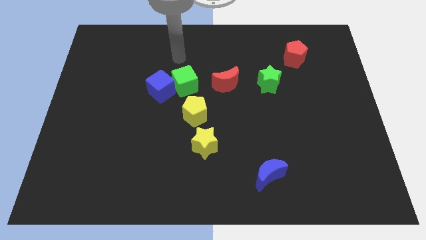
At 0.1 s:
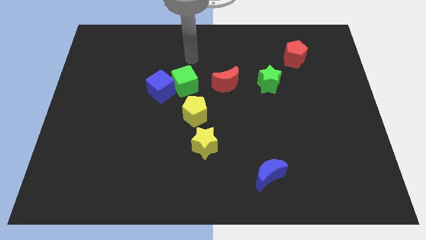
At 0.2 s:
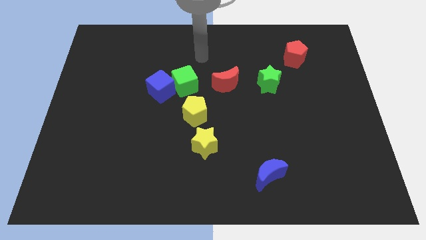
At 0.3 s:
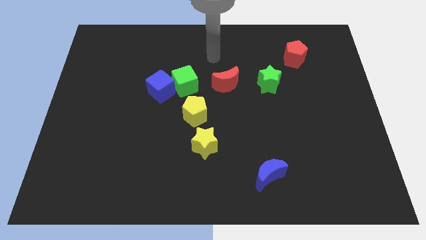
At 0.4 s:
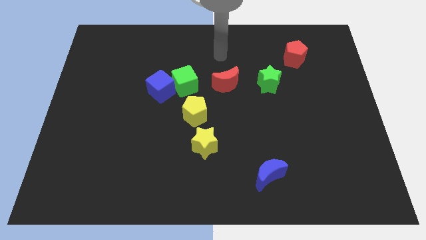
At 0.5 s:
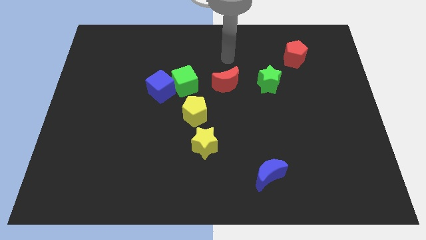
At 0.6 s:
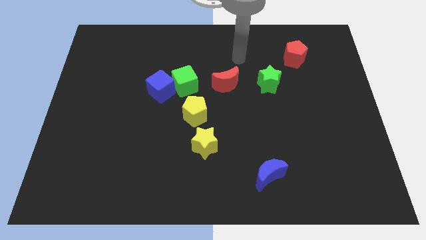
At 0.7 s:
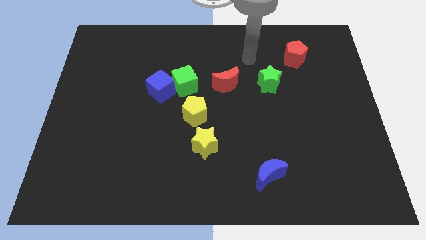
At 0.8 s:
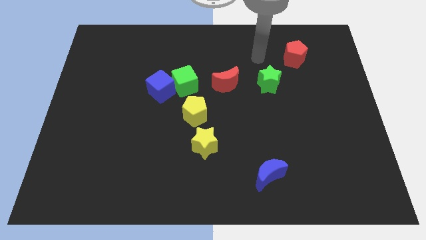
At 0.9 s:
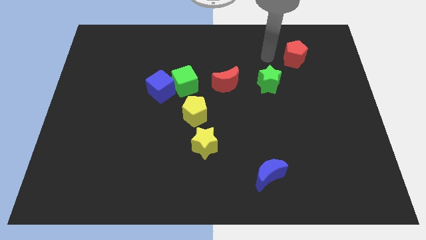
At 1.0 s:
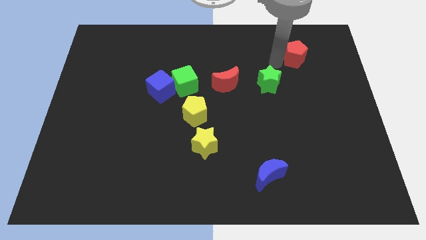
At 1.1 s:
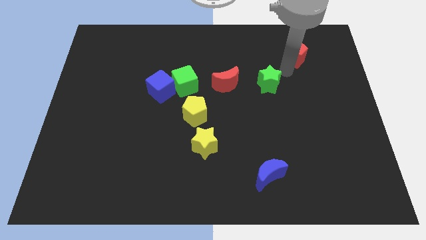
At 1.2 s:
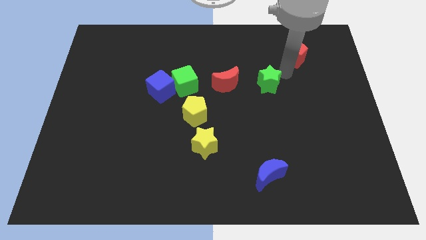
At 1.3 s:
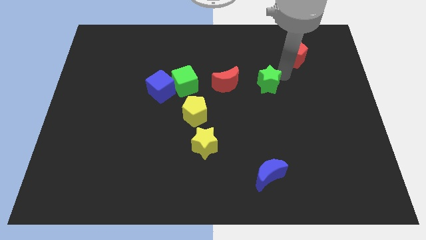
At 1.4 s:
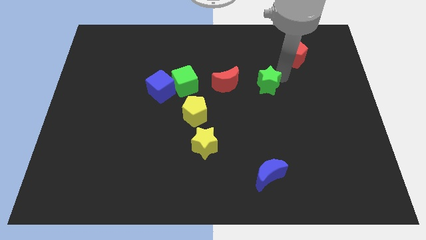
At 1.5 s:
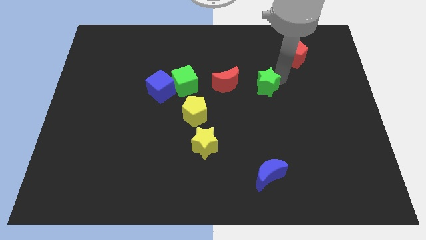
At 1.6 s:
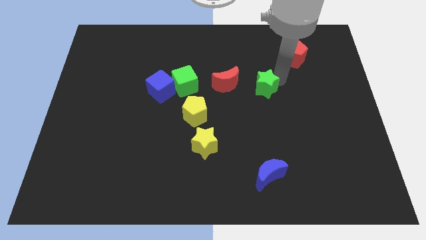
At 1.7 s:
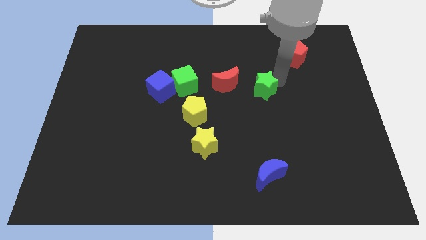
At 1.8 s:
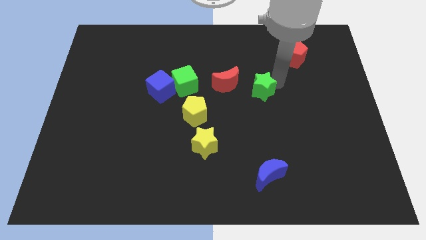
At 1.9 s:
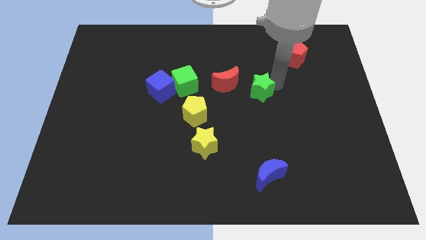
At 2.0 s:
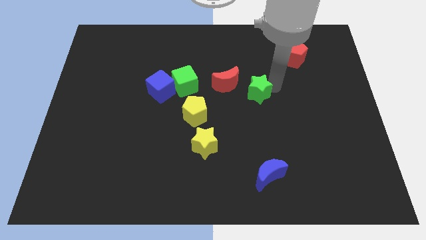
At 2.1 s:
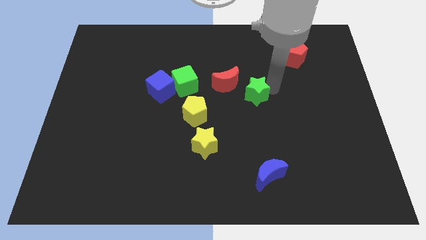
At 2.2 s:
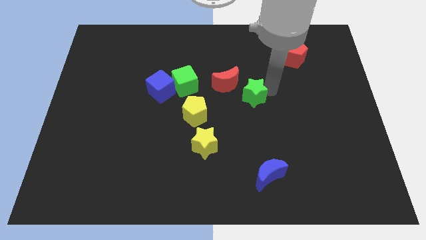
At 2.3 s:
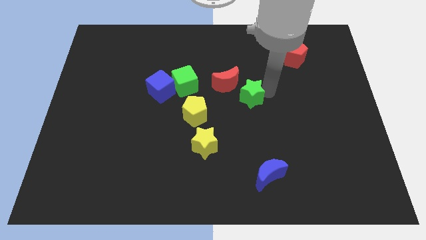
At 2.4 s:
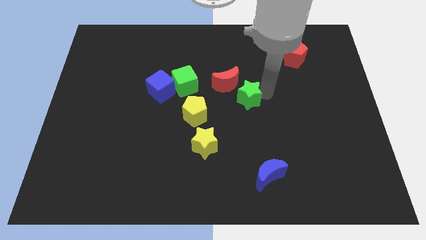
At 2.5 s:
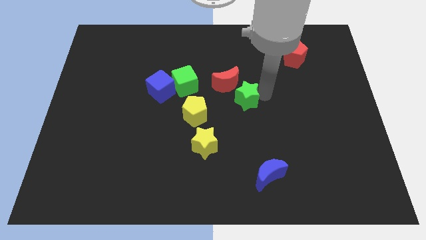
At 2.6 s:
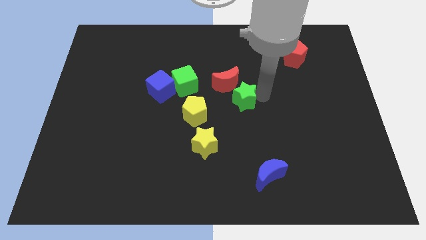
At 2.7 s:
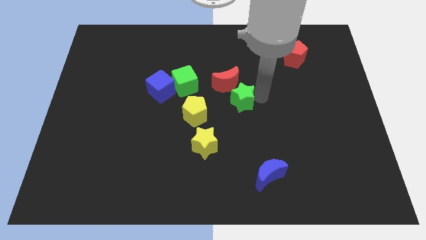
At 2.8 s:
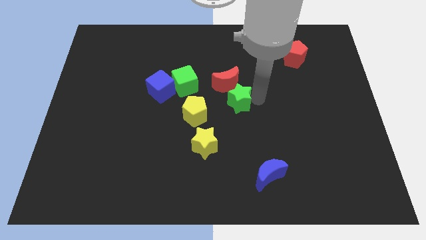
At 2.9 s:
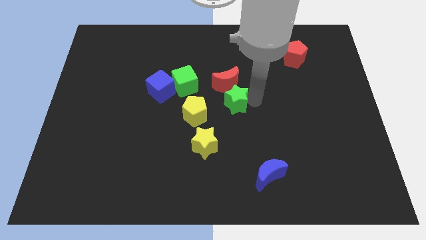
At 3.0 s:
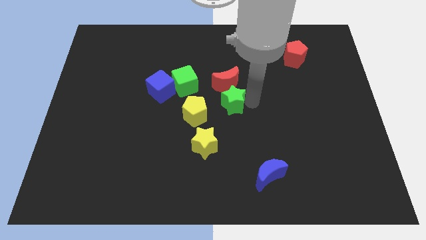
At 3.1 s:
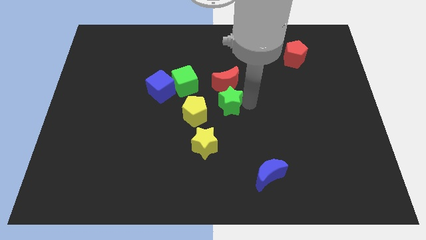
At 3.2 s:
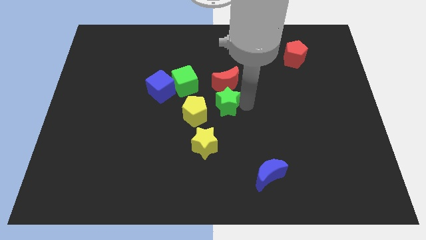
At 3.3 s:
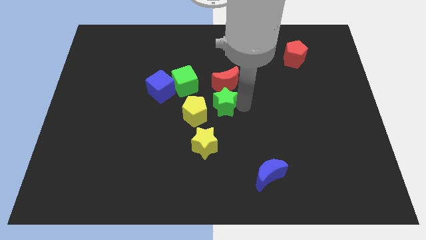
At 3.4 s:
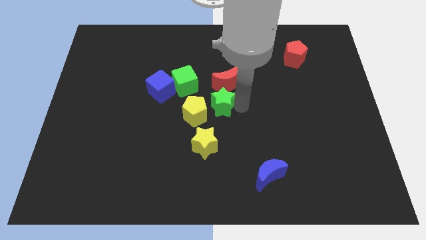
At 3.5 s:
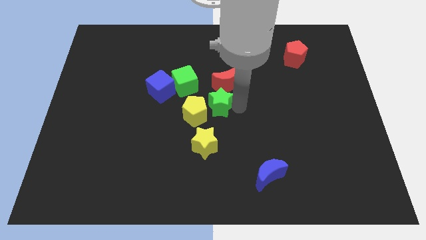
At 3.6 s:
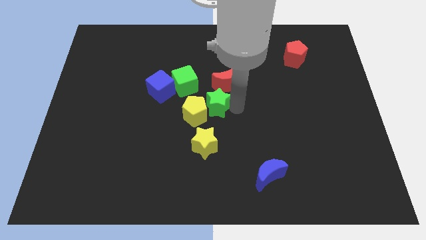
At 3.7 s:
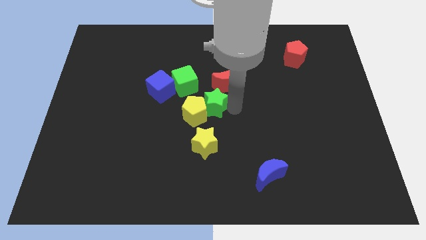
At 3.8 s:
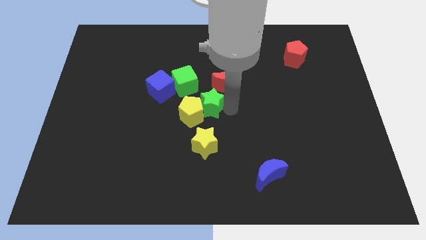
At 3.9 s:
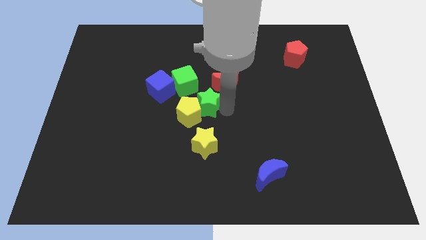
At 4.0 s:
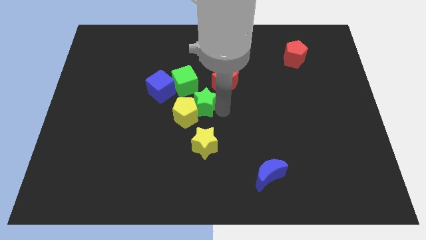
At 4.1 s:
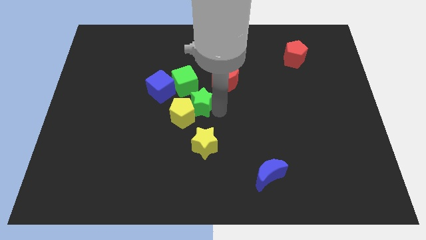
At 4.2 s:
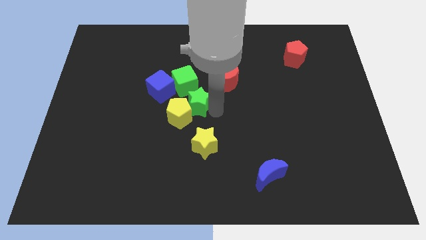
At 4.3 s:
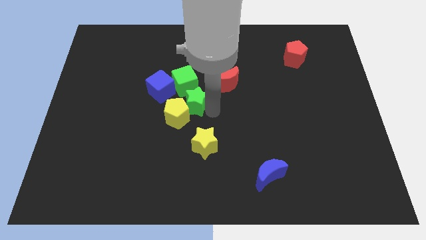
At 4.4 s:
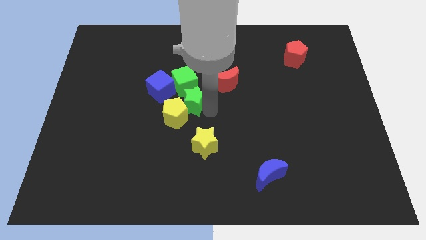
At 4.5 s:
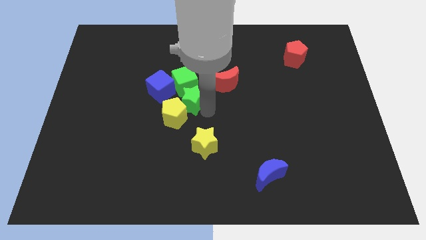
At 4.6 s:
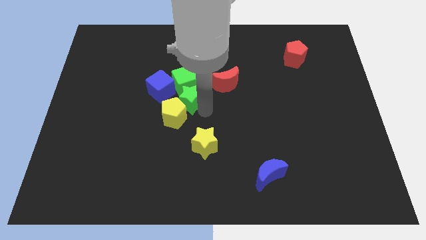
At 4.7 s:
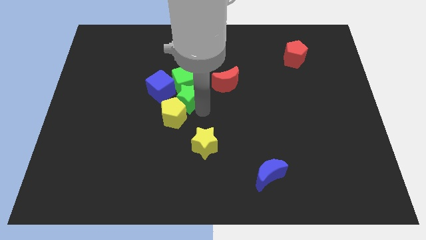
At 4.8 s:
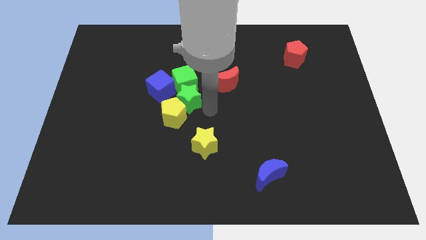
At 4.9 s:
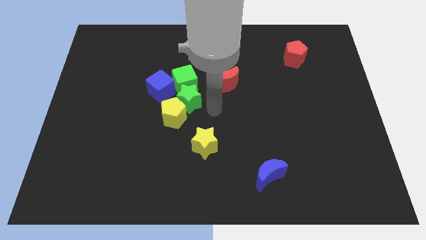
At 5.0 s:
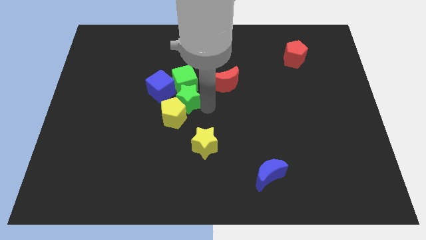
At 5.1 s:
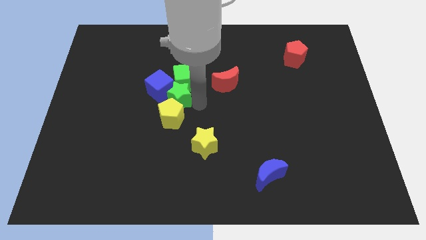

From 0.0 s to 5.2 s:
put the green star towards the blue cube

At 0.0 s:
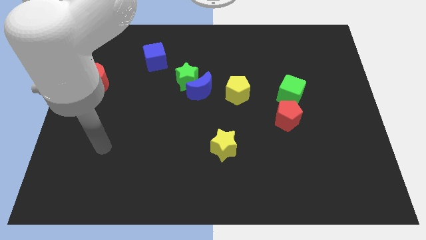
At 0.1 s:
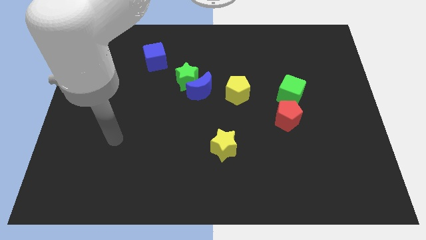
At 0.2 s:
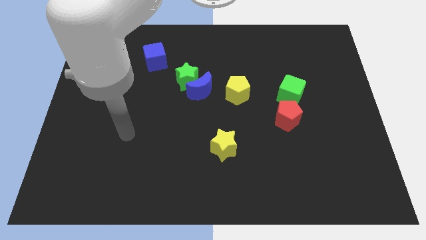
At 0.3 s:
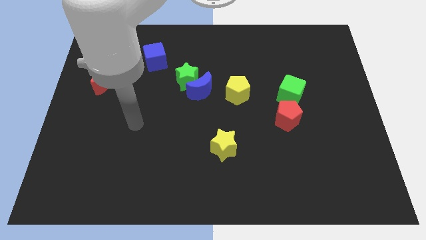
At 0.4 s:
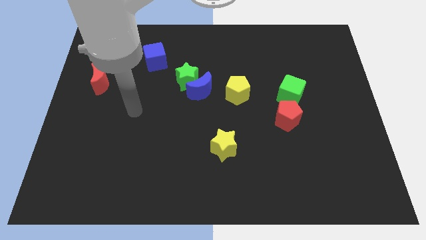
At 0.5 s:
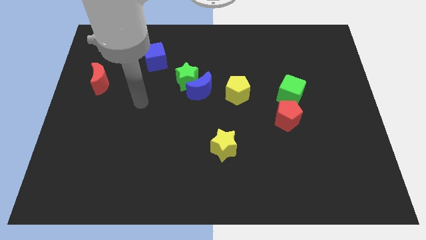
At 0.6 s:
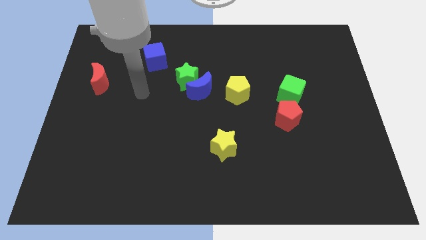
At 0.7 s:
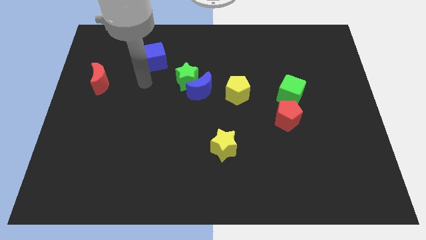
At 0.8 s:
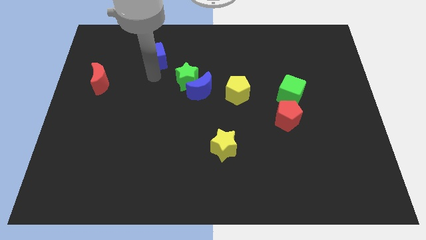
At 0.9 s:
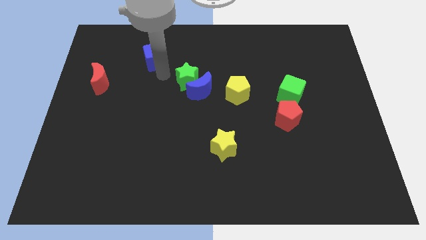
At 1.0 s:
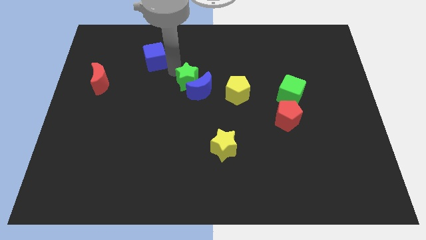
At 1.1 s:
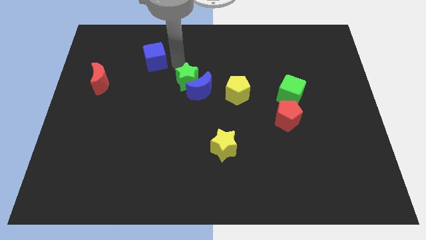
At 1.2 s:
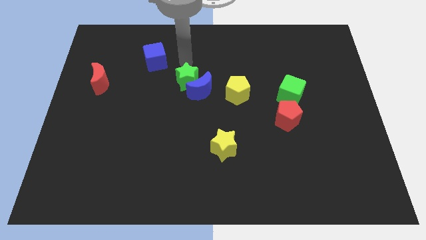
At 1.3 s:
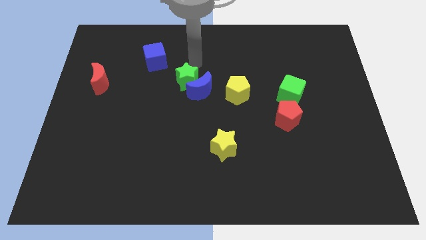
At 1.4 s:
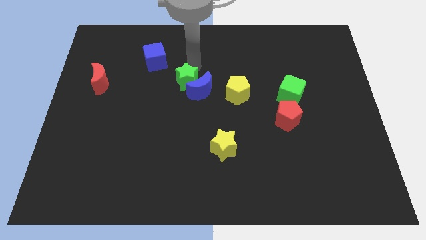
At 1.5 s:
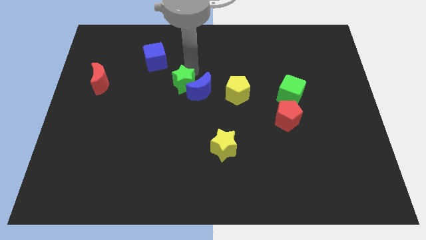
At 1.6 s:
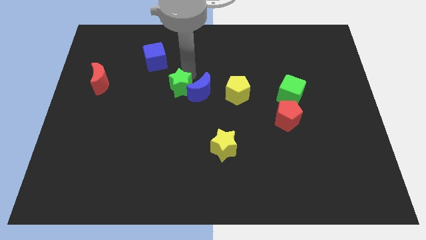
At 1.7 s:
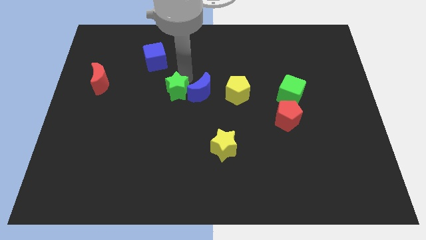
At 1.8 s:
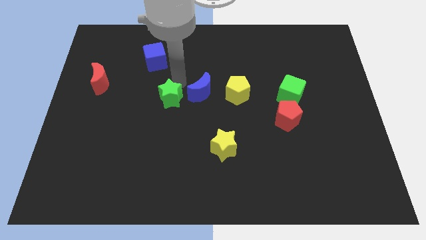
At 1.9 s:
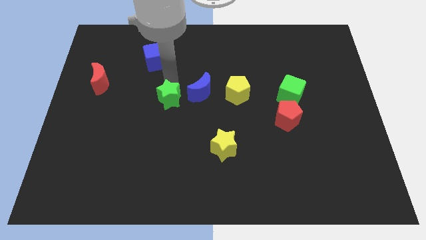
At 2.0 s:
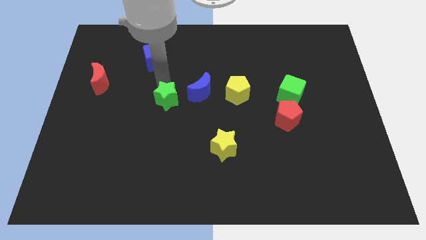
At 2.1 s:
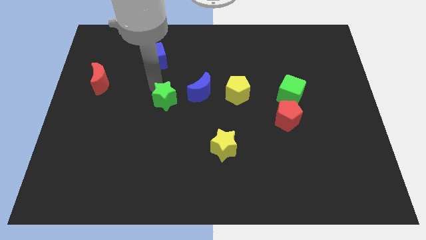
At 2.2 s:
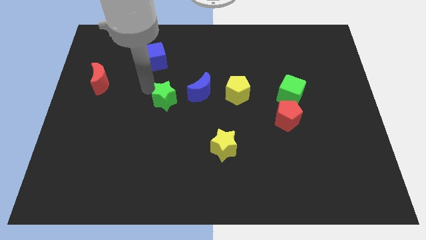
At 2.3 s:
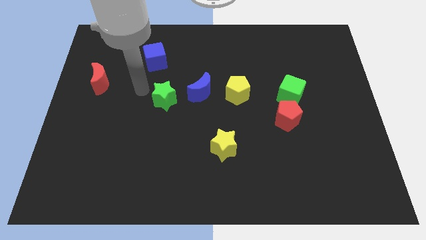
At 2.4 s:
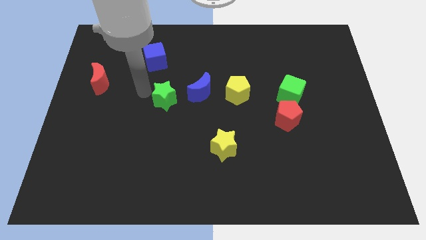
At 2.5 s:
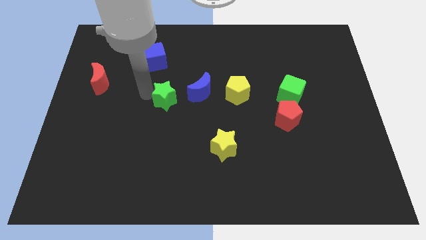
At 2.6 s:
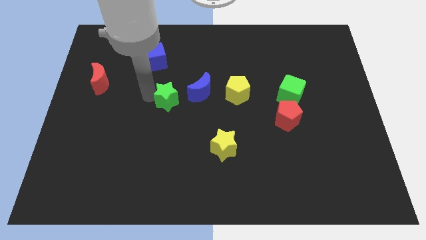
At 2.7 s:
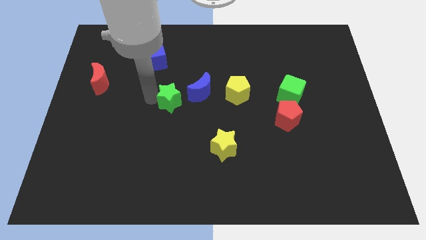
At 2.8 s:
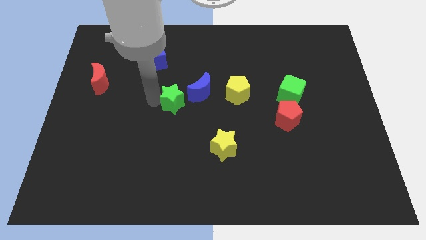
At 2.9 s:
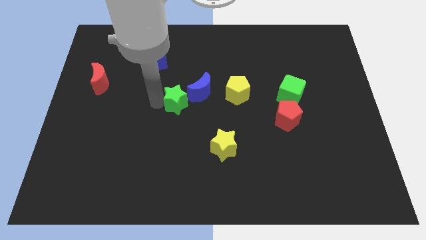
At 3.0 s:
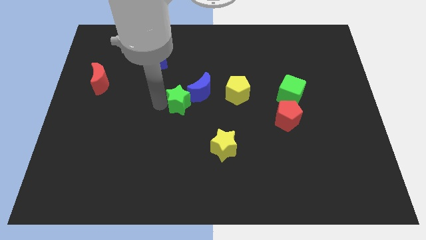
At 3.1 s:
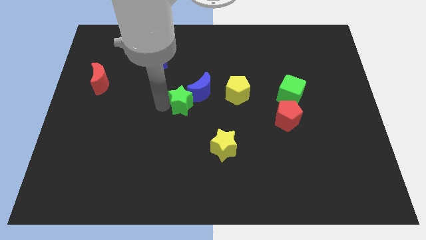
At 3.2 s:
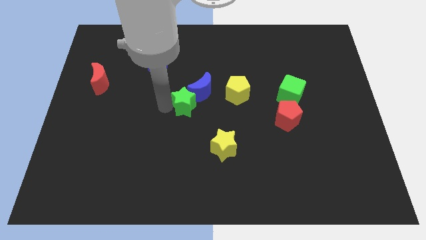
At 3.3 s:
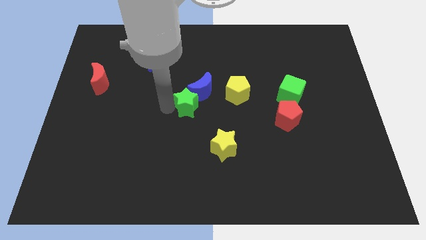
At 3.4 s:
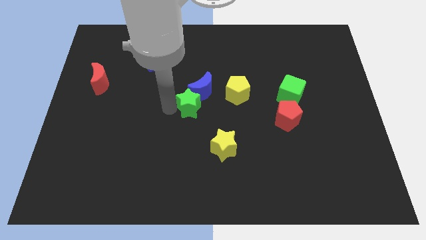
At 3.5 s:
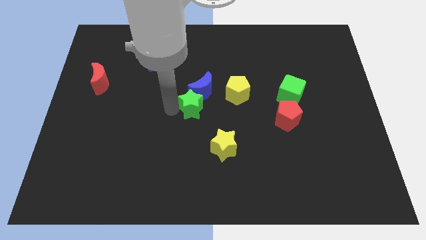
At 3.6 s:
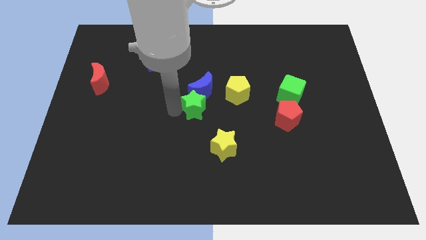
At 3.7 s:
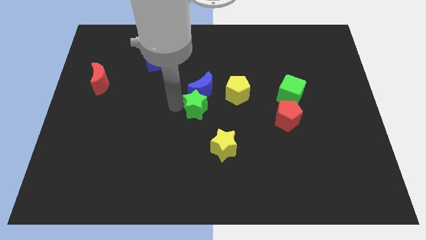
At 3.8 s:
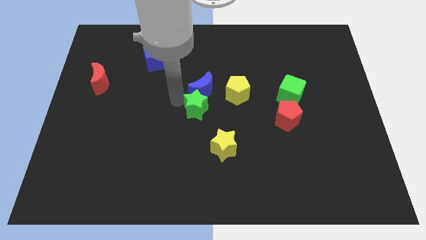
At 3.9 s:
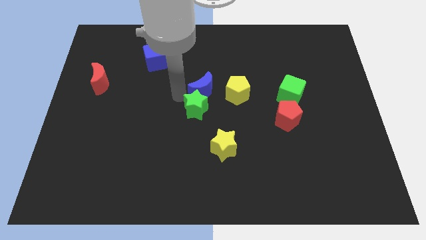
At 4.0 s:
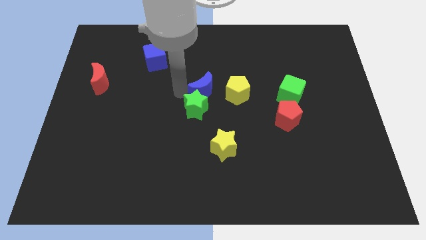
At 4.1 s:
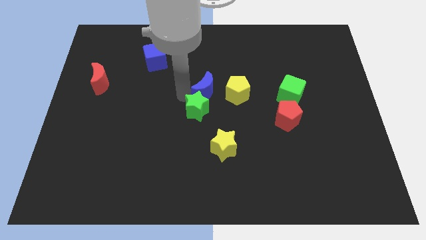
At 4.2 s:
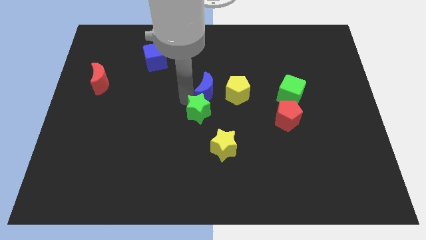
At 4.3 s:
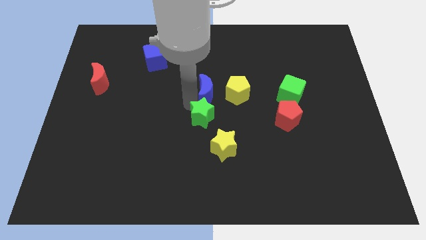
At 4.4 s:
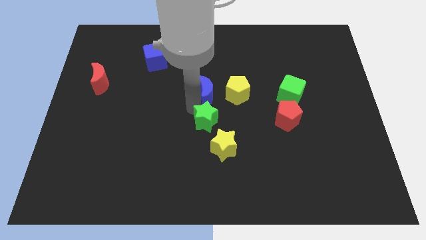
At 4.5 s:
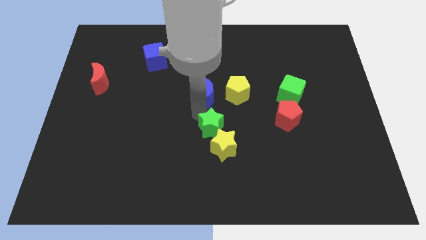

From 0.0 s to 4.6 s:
slide the green star to the yellow star
